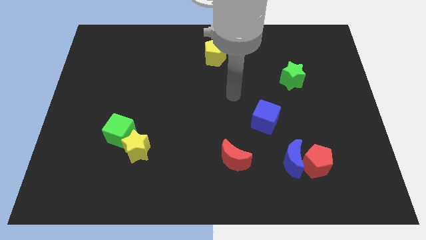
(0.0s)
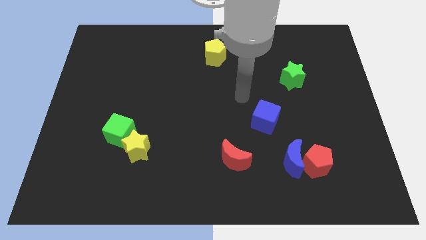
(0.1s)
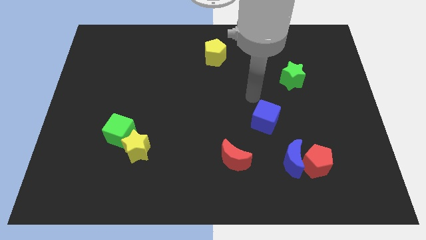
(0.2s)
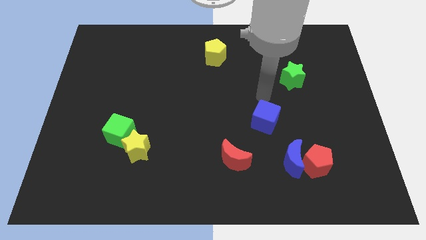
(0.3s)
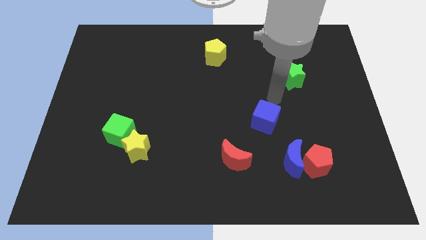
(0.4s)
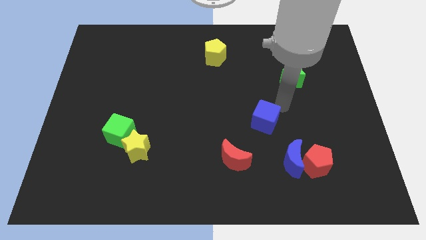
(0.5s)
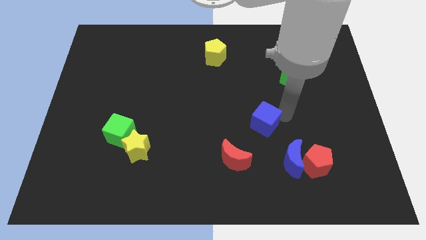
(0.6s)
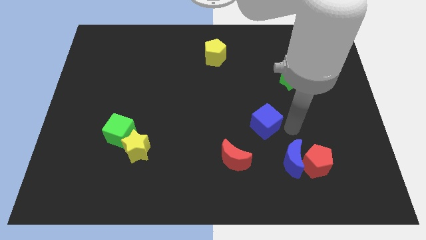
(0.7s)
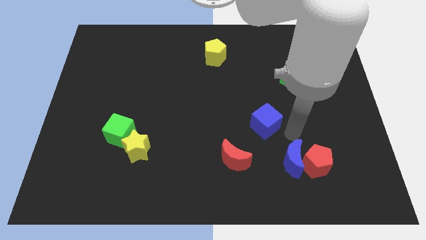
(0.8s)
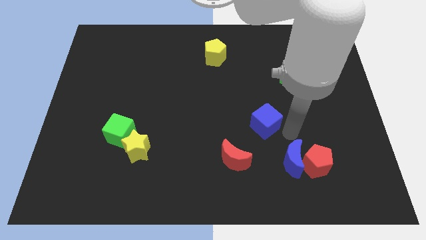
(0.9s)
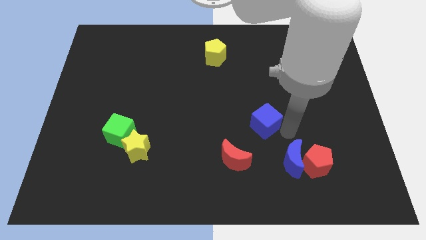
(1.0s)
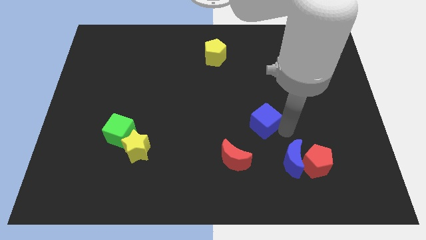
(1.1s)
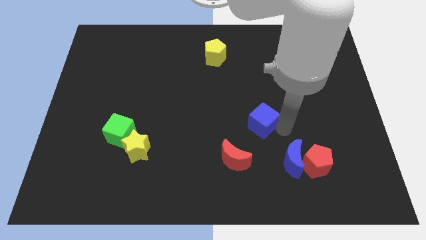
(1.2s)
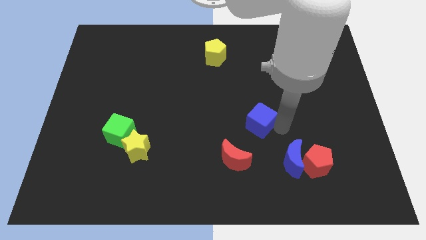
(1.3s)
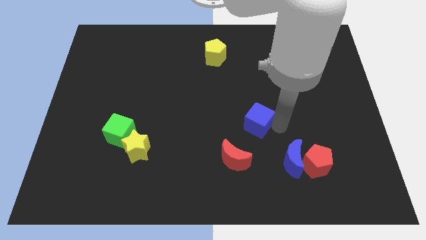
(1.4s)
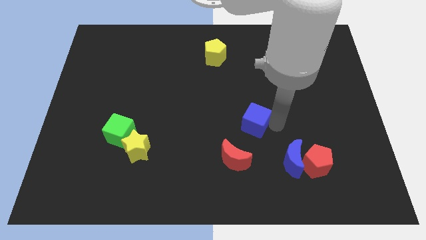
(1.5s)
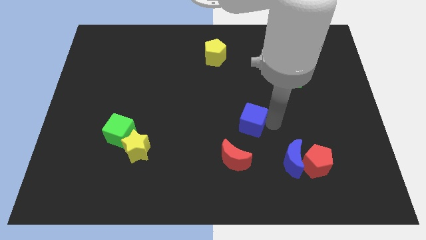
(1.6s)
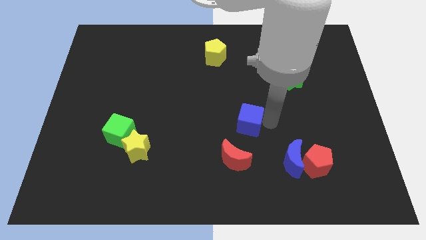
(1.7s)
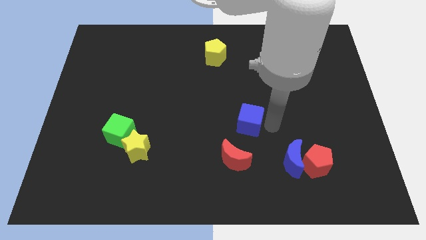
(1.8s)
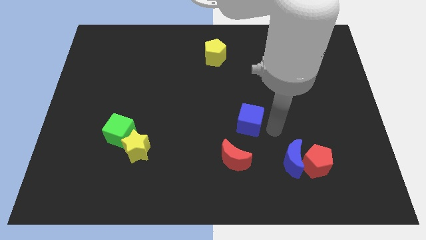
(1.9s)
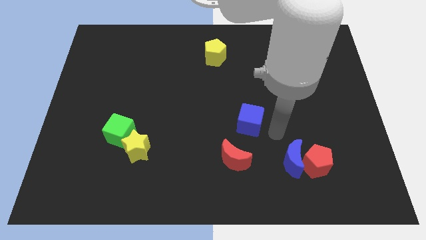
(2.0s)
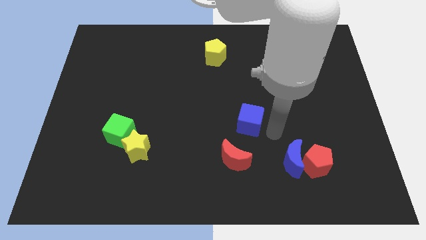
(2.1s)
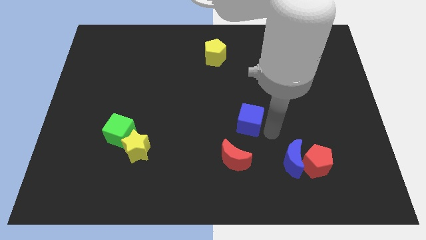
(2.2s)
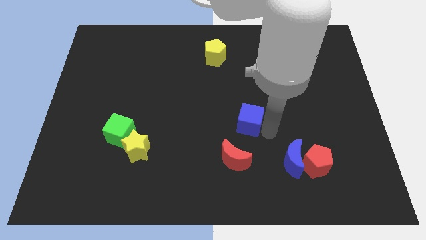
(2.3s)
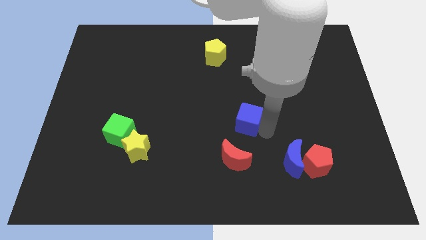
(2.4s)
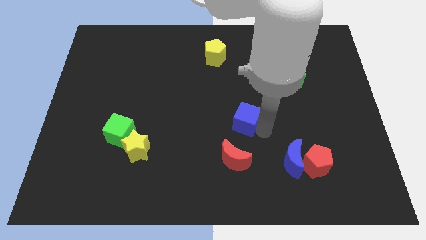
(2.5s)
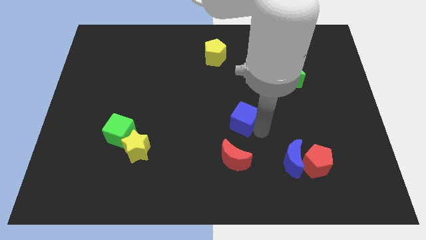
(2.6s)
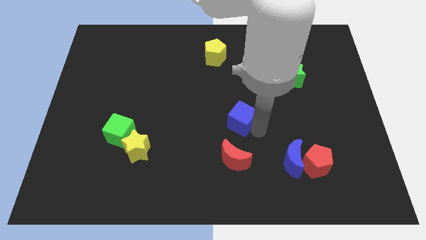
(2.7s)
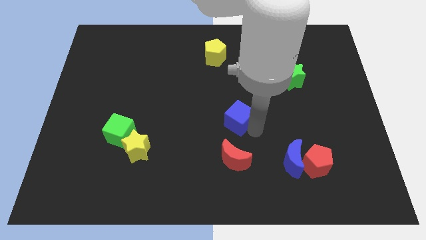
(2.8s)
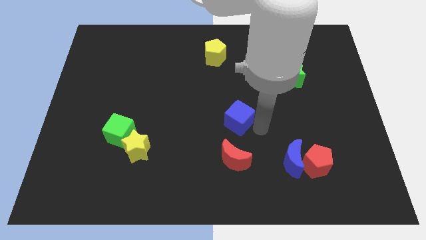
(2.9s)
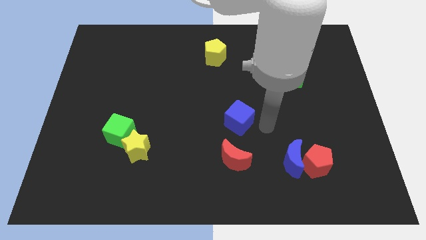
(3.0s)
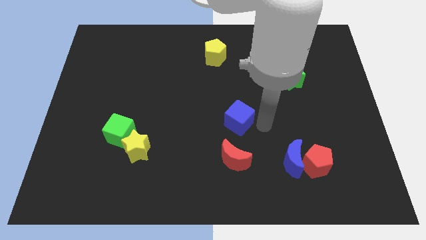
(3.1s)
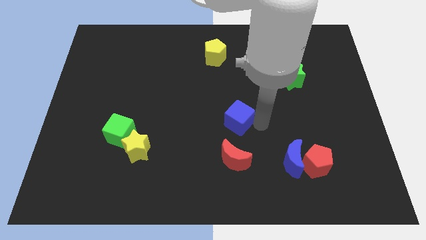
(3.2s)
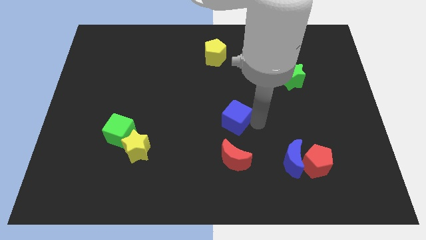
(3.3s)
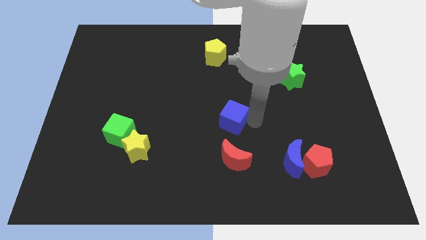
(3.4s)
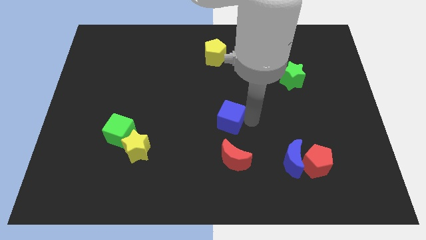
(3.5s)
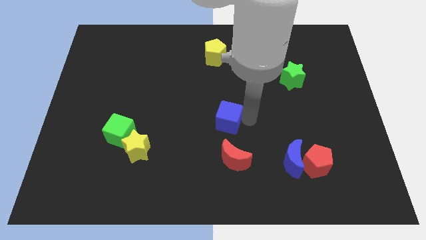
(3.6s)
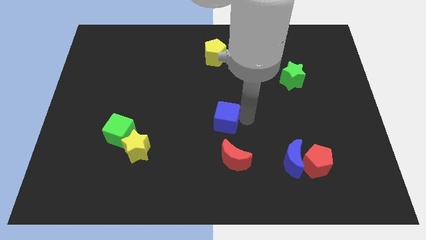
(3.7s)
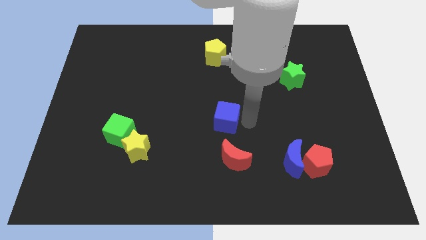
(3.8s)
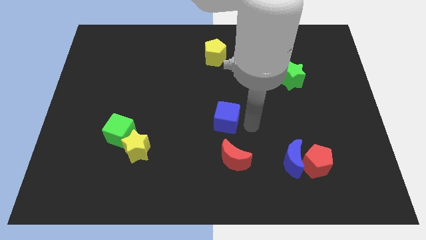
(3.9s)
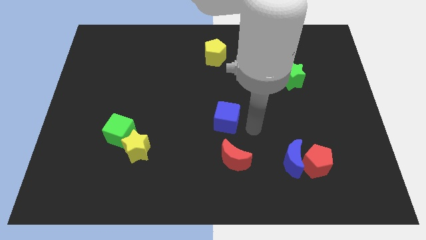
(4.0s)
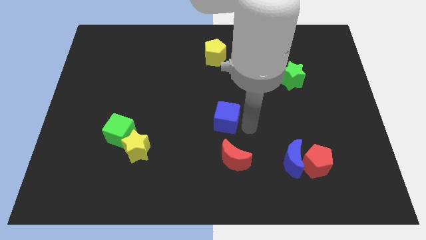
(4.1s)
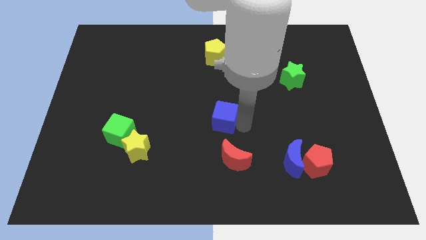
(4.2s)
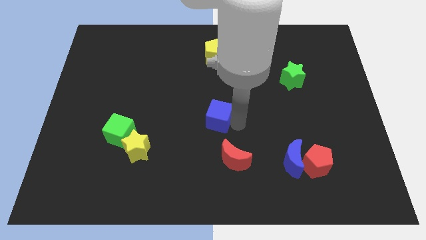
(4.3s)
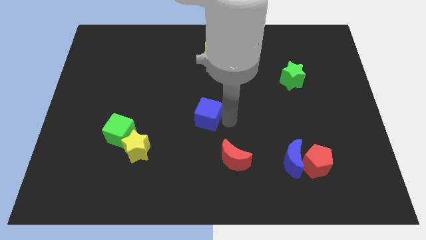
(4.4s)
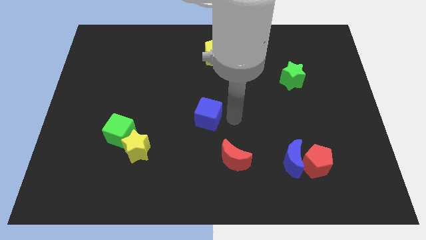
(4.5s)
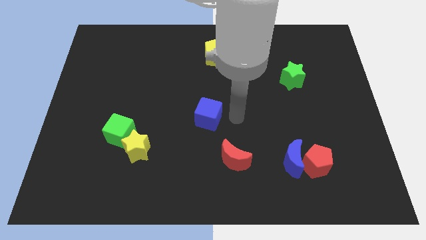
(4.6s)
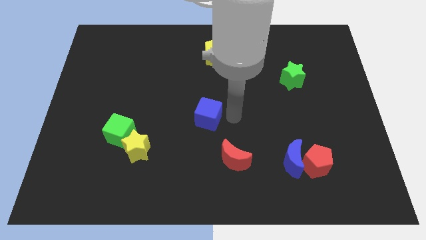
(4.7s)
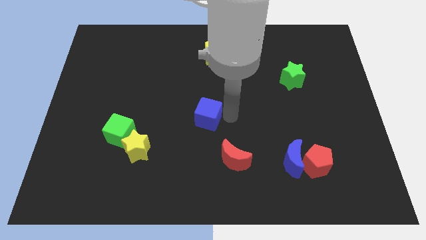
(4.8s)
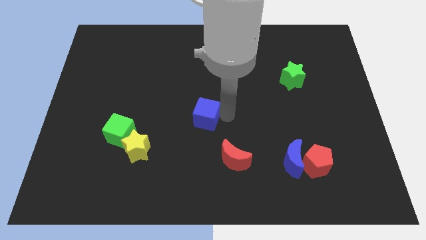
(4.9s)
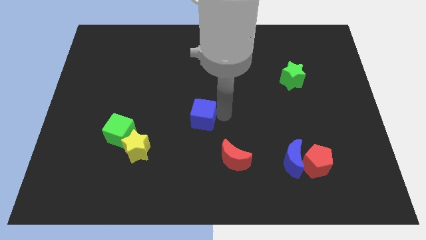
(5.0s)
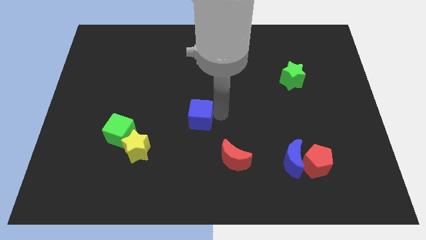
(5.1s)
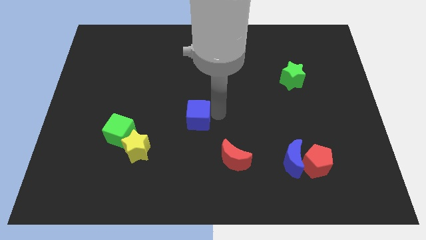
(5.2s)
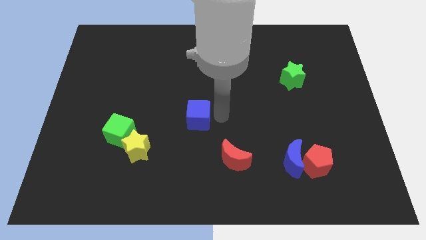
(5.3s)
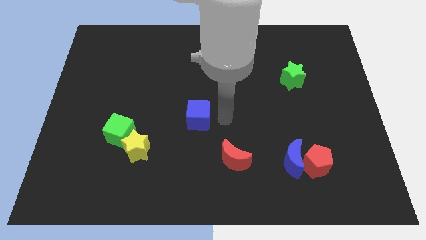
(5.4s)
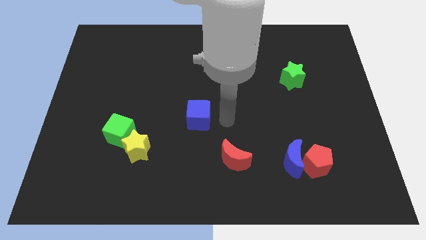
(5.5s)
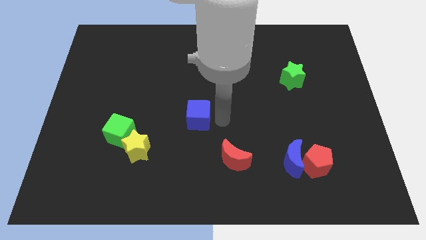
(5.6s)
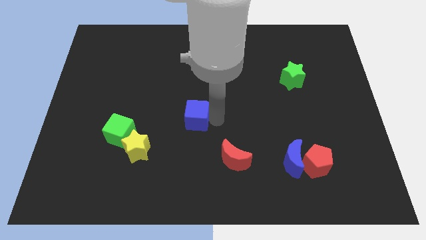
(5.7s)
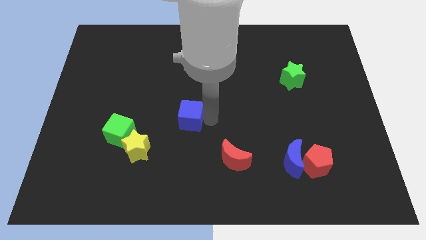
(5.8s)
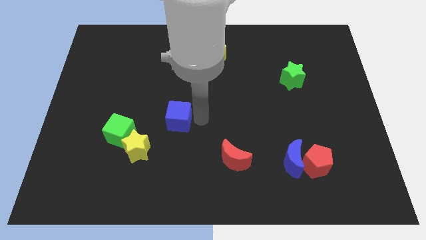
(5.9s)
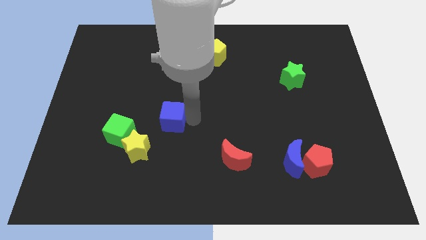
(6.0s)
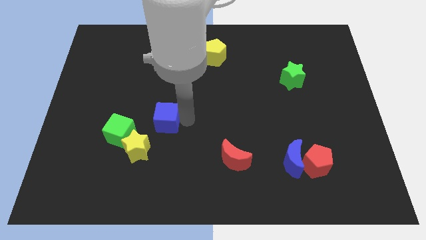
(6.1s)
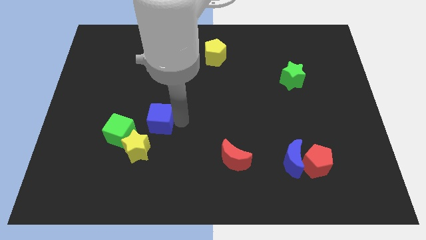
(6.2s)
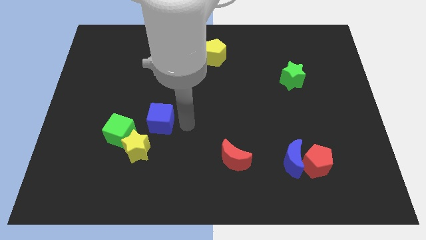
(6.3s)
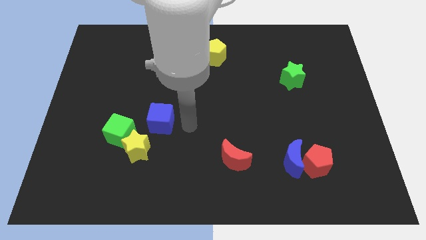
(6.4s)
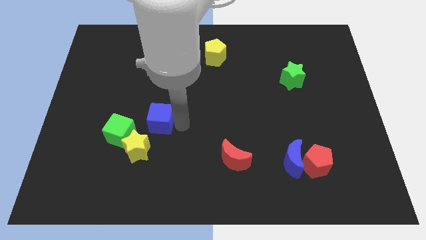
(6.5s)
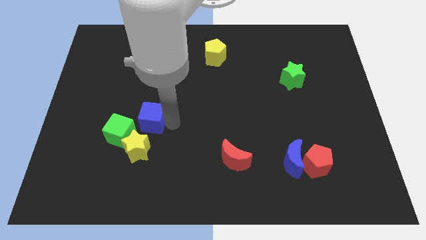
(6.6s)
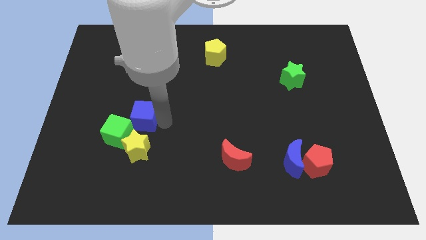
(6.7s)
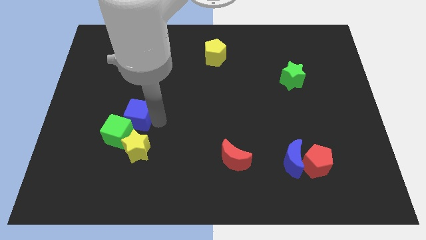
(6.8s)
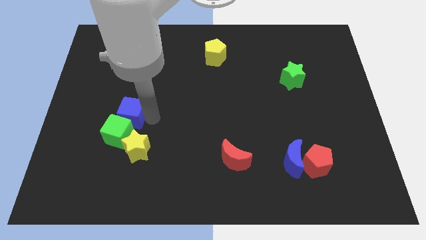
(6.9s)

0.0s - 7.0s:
push the blue cube to the top left of the yellow star
